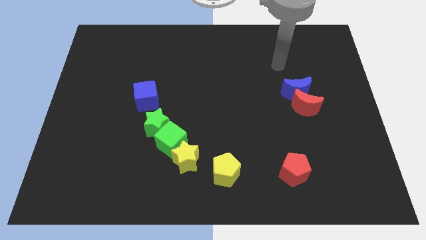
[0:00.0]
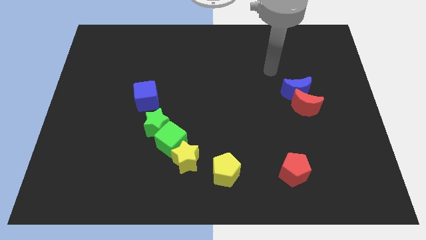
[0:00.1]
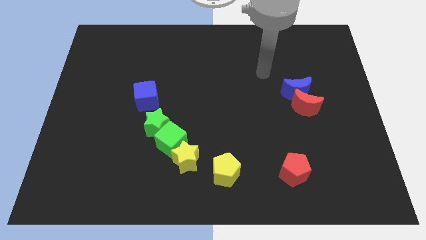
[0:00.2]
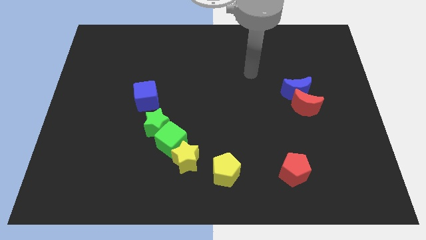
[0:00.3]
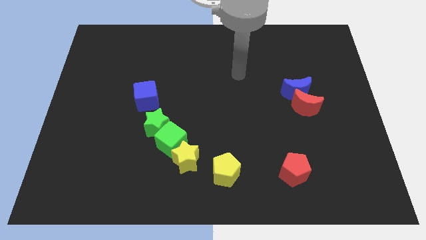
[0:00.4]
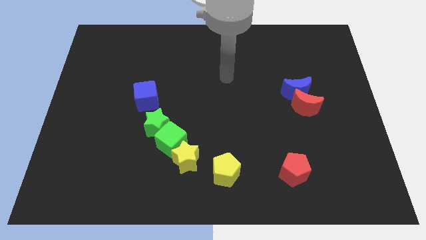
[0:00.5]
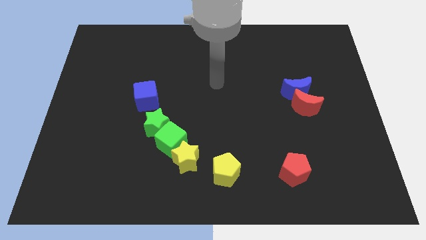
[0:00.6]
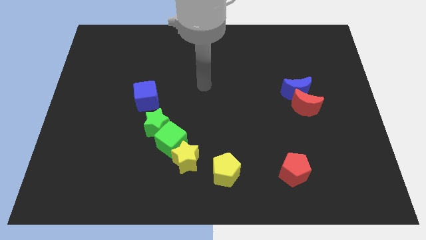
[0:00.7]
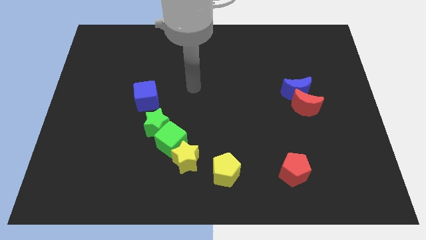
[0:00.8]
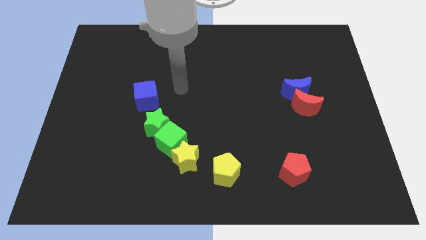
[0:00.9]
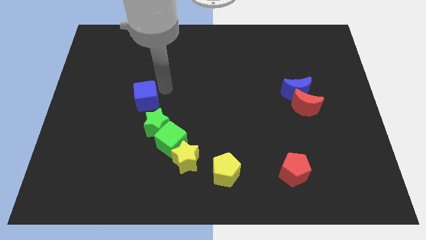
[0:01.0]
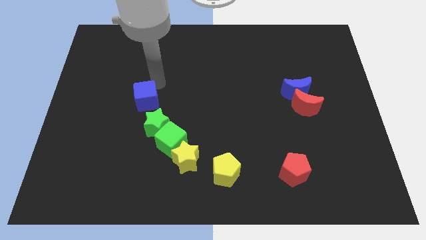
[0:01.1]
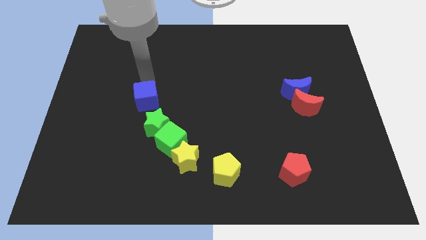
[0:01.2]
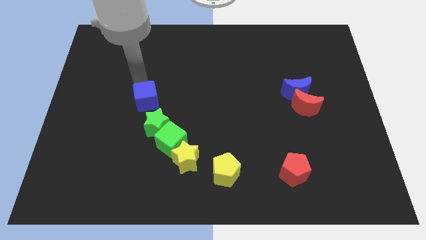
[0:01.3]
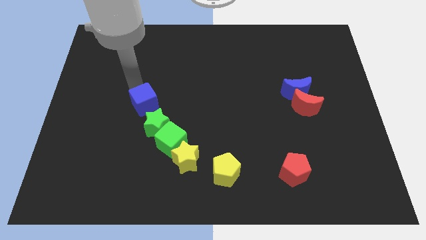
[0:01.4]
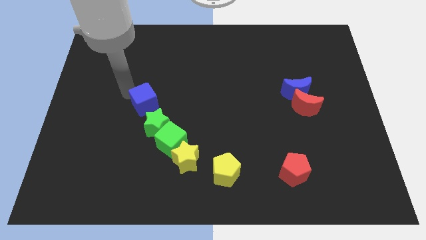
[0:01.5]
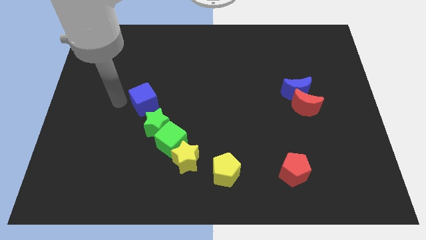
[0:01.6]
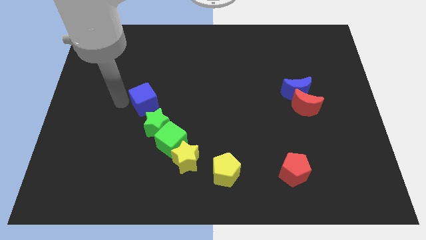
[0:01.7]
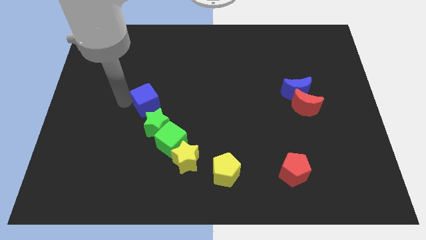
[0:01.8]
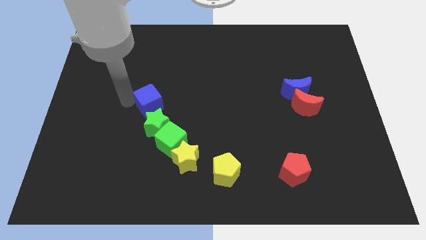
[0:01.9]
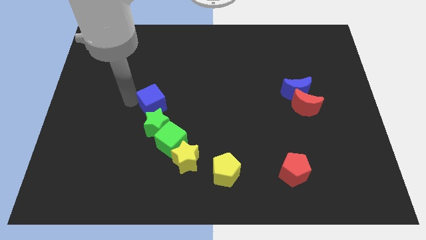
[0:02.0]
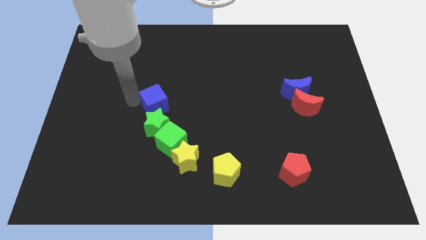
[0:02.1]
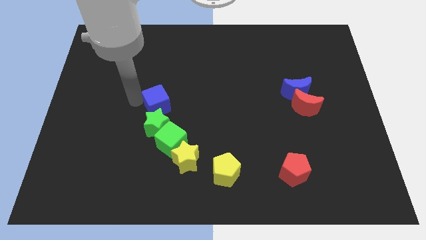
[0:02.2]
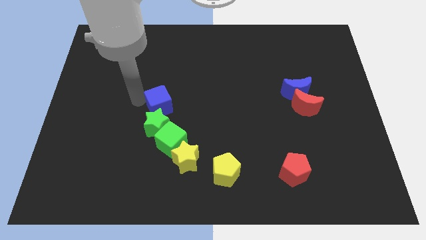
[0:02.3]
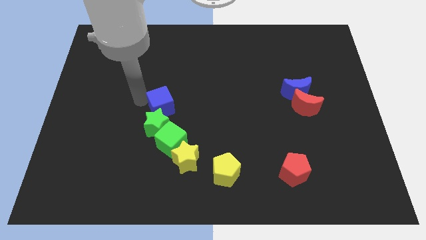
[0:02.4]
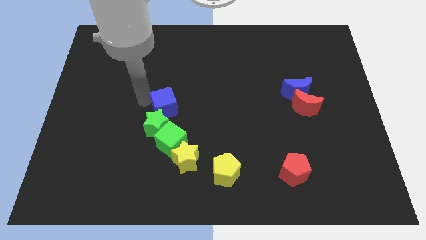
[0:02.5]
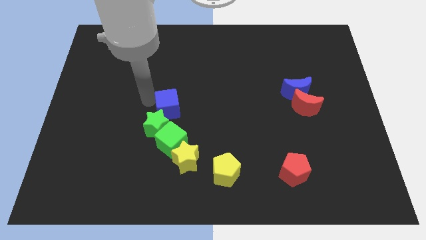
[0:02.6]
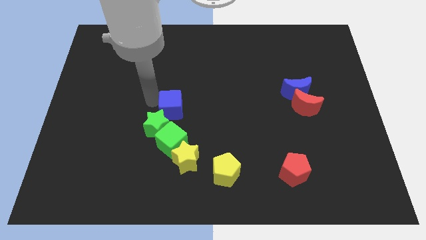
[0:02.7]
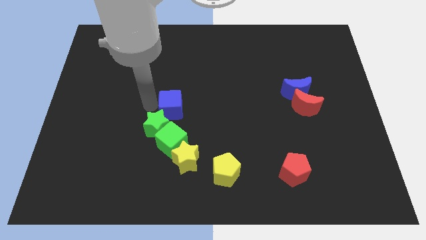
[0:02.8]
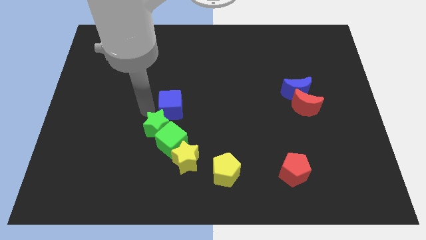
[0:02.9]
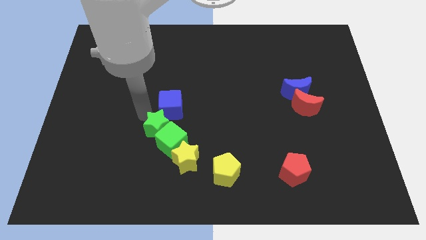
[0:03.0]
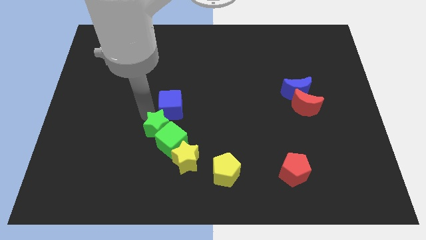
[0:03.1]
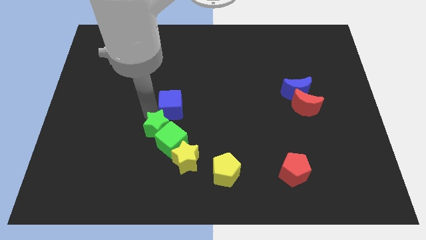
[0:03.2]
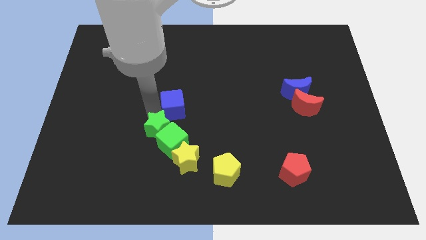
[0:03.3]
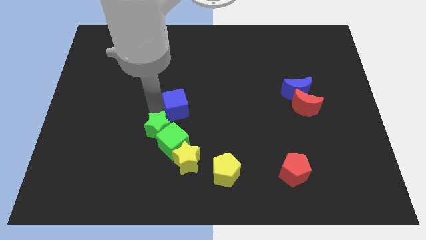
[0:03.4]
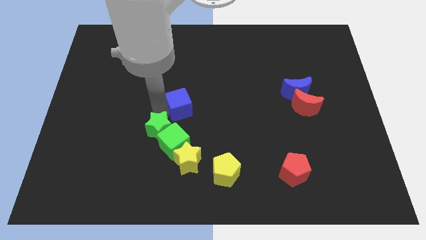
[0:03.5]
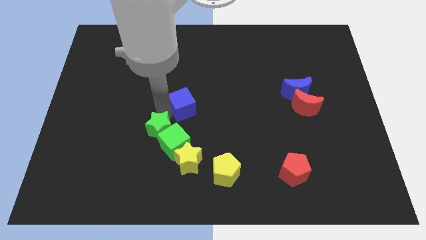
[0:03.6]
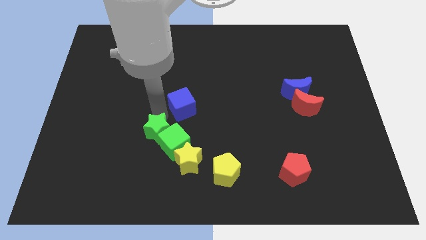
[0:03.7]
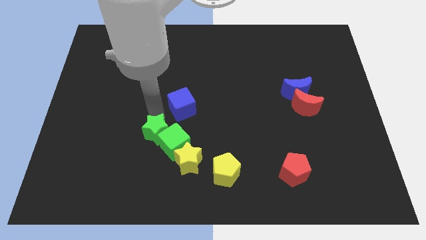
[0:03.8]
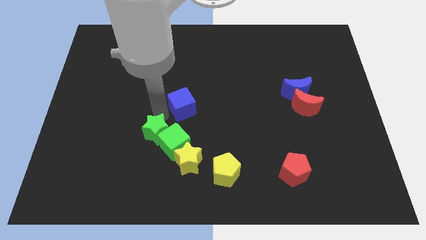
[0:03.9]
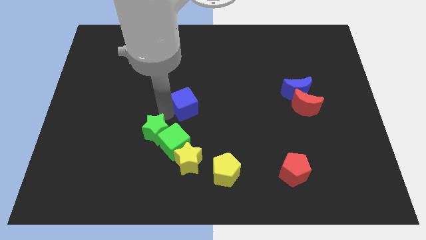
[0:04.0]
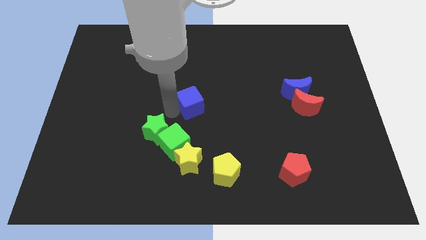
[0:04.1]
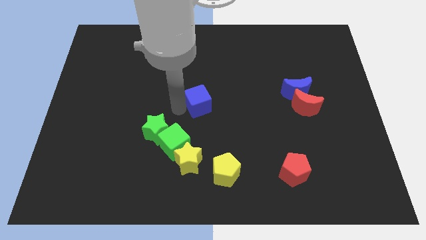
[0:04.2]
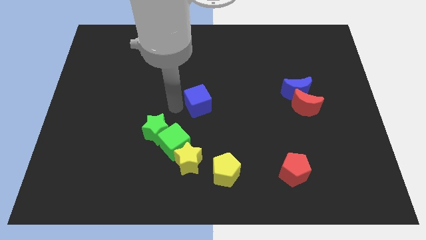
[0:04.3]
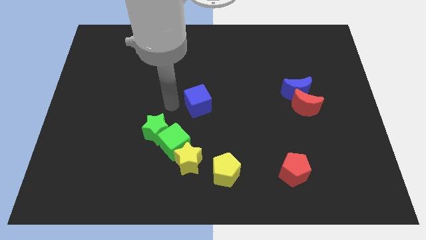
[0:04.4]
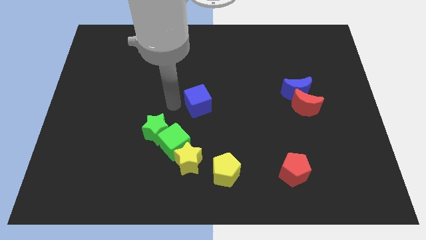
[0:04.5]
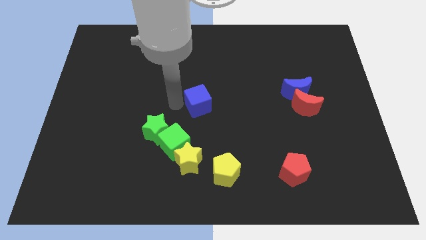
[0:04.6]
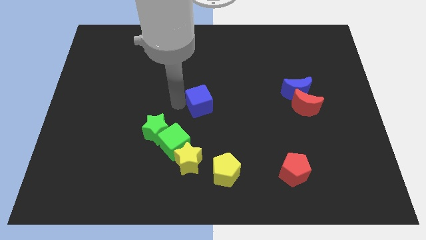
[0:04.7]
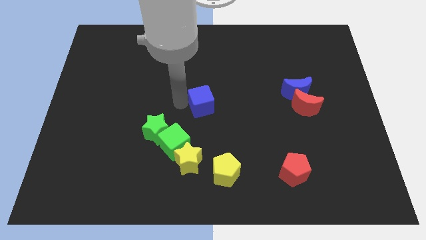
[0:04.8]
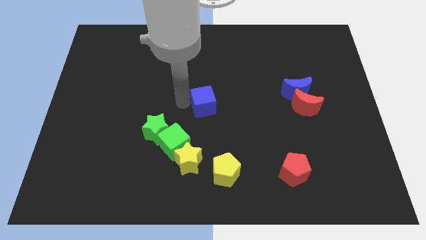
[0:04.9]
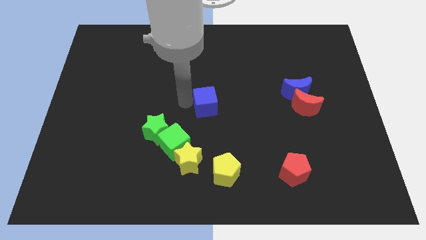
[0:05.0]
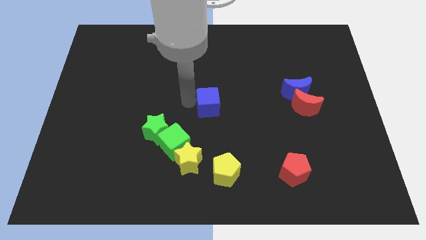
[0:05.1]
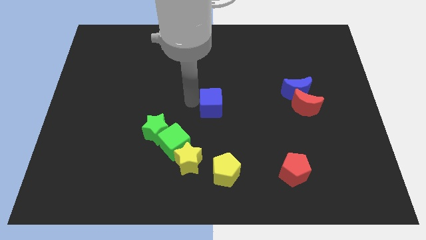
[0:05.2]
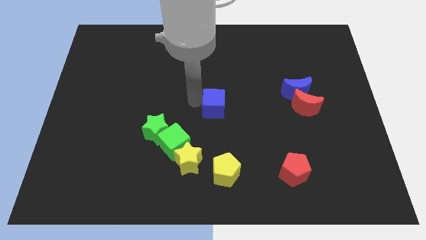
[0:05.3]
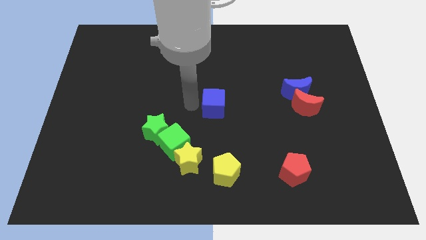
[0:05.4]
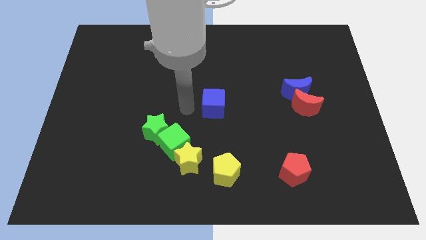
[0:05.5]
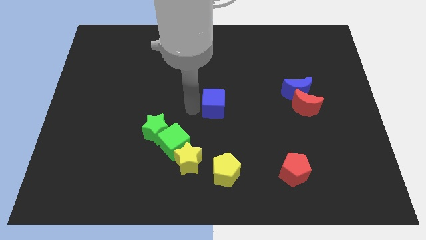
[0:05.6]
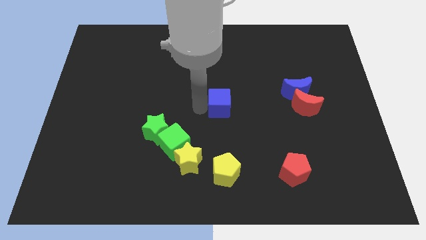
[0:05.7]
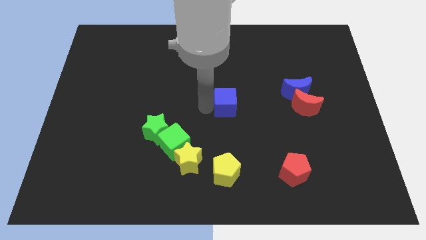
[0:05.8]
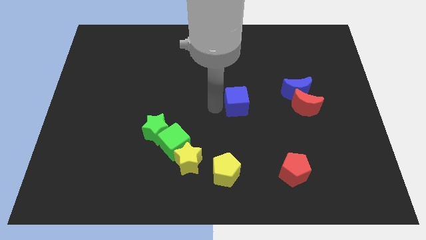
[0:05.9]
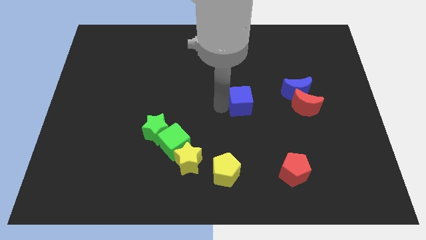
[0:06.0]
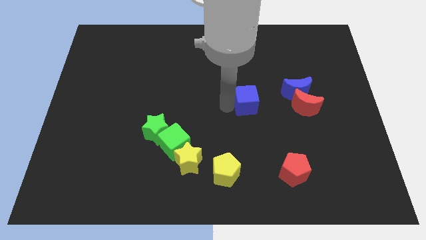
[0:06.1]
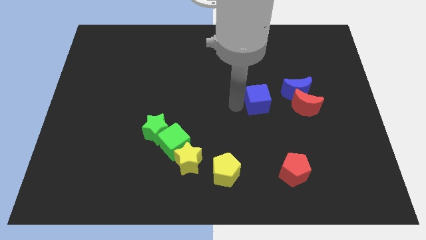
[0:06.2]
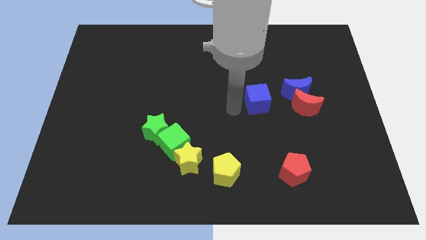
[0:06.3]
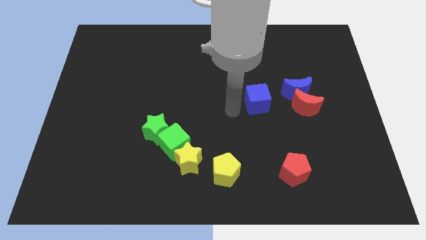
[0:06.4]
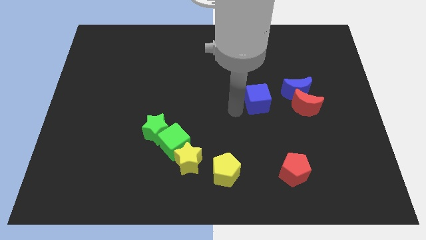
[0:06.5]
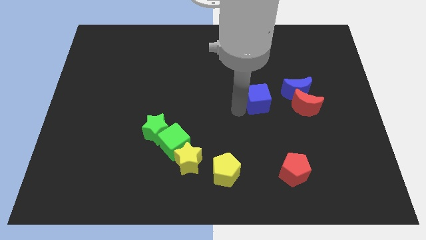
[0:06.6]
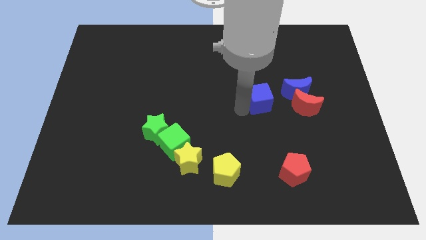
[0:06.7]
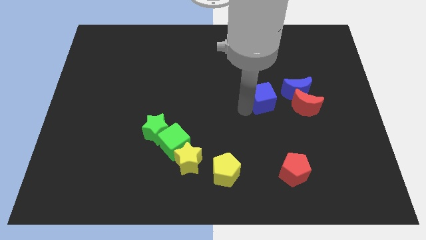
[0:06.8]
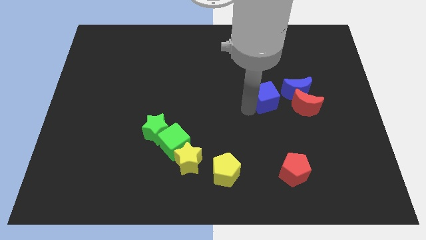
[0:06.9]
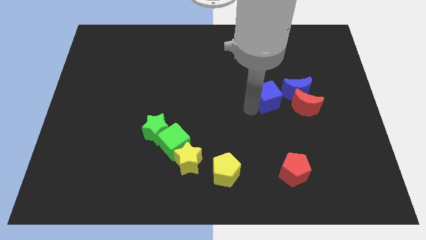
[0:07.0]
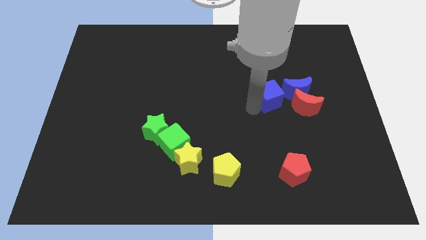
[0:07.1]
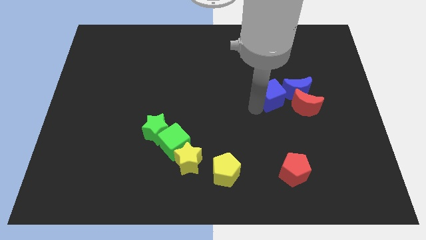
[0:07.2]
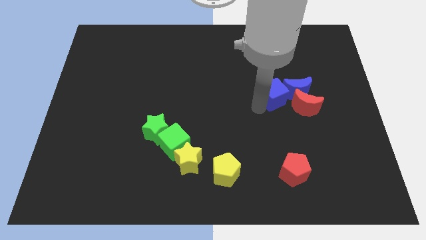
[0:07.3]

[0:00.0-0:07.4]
move the blue cube next to the blue moon
